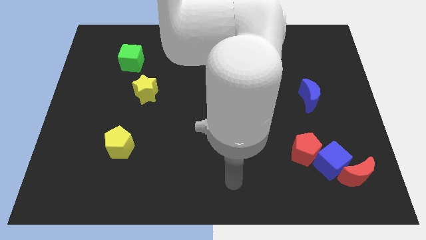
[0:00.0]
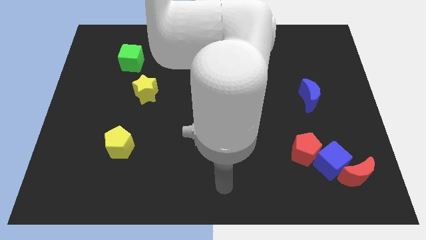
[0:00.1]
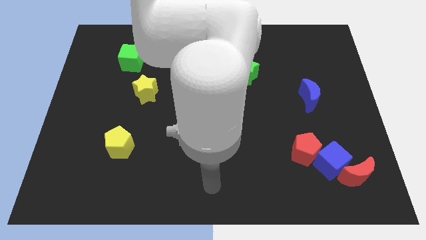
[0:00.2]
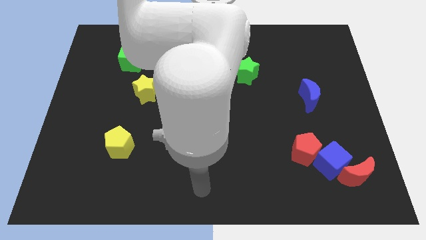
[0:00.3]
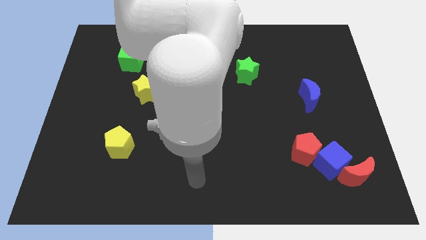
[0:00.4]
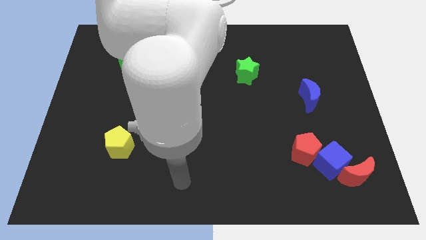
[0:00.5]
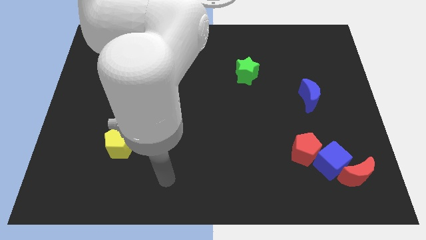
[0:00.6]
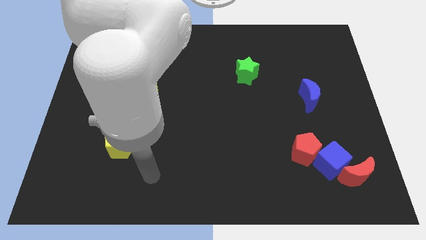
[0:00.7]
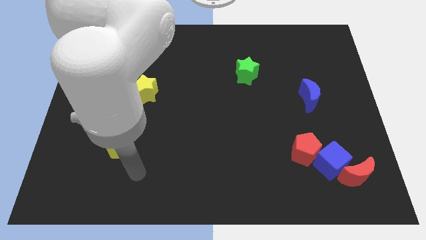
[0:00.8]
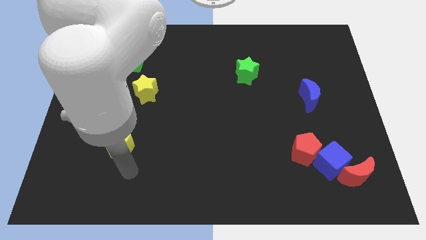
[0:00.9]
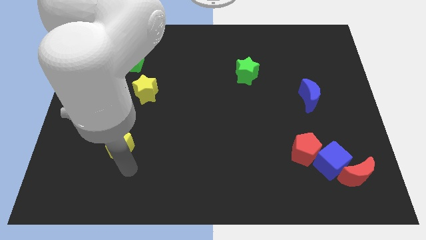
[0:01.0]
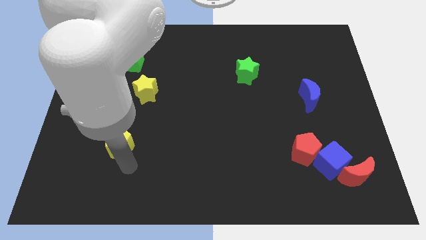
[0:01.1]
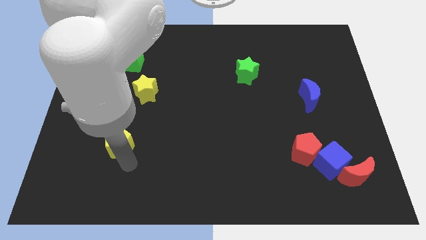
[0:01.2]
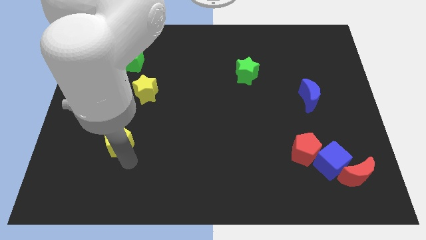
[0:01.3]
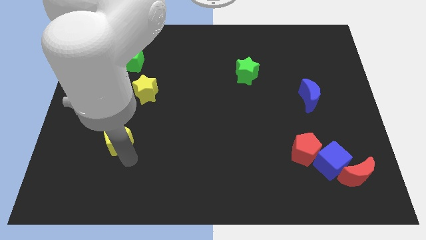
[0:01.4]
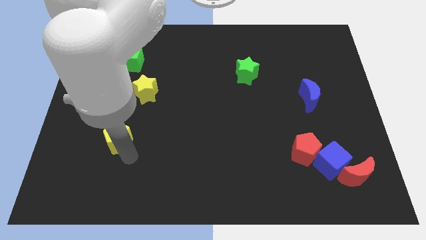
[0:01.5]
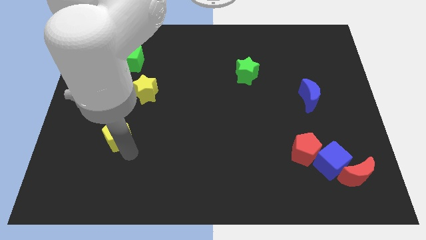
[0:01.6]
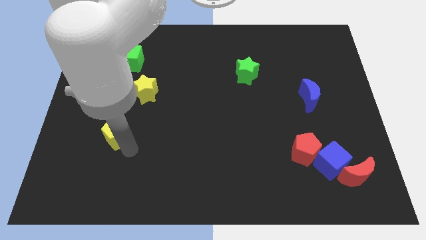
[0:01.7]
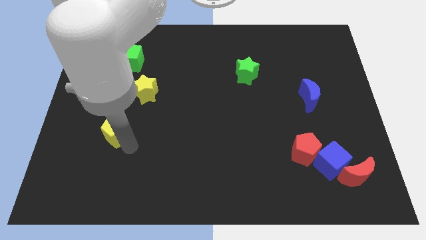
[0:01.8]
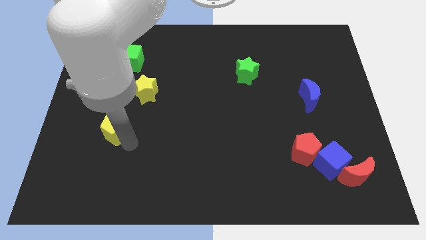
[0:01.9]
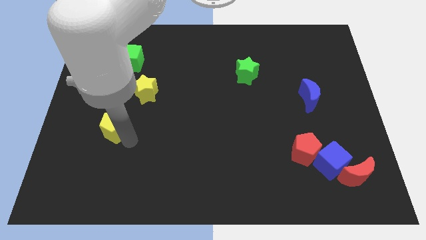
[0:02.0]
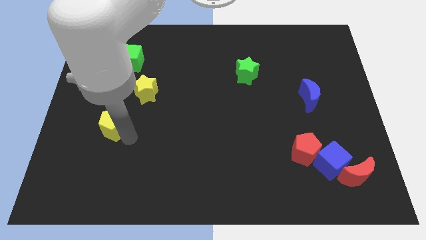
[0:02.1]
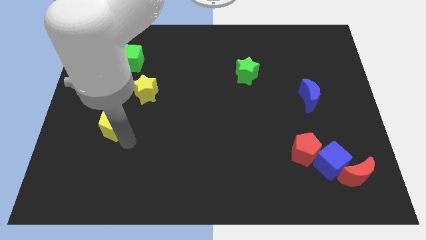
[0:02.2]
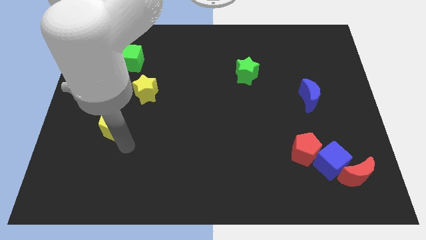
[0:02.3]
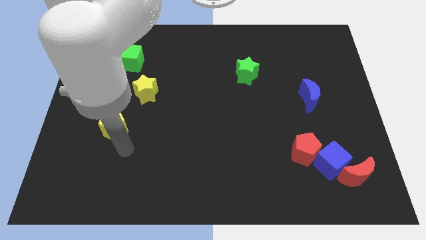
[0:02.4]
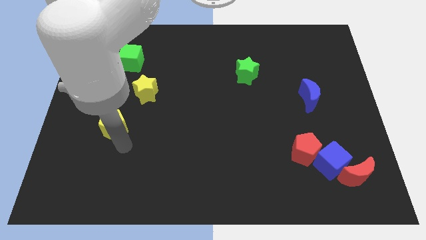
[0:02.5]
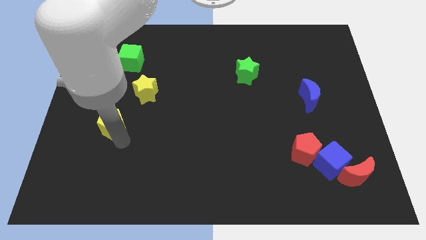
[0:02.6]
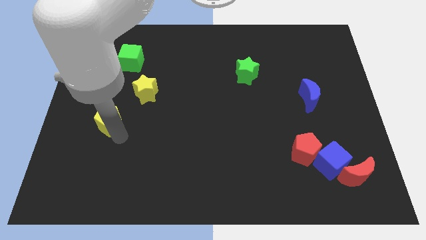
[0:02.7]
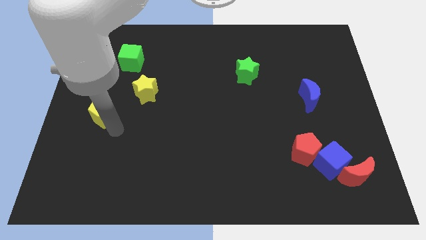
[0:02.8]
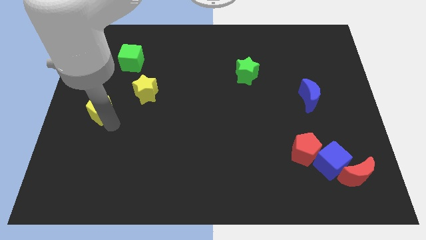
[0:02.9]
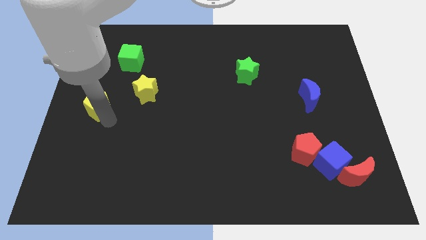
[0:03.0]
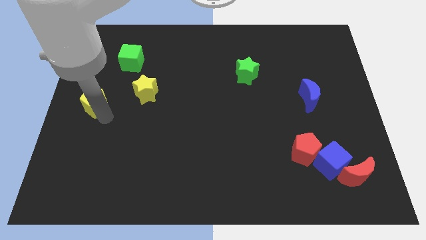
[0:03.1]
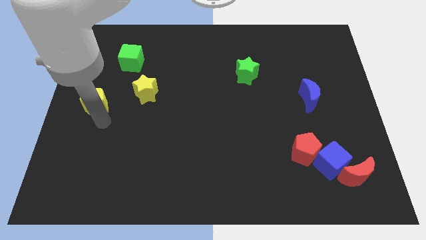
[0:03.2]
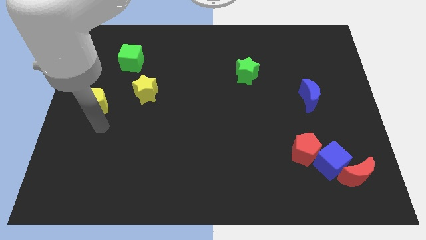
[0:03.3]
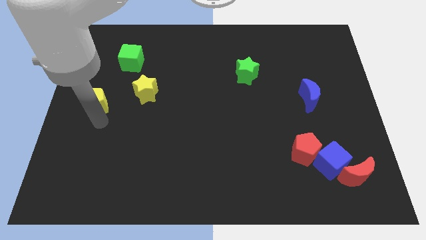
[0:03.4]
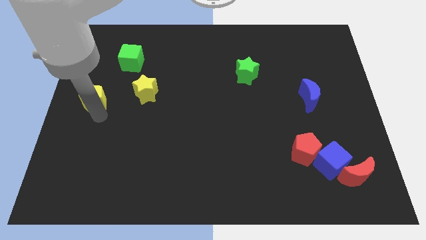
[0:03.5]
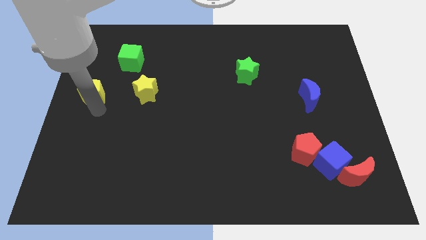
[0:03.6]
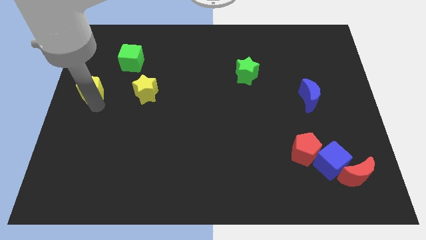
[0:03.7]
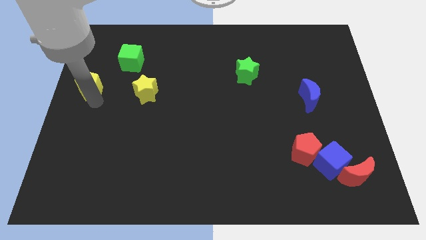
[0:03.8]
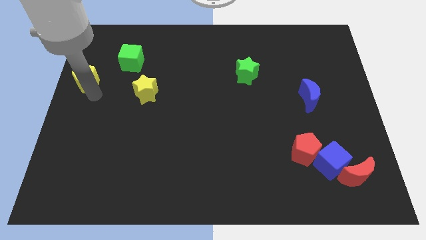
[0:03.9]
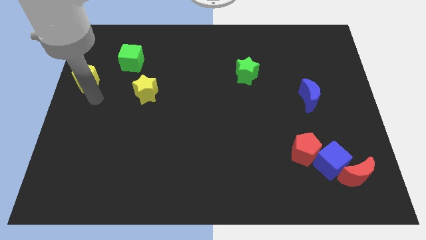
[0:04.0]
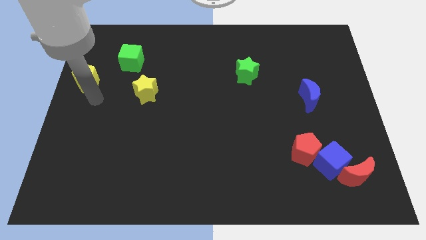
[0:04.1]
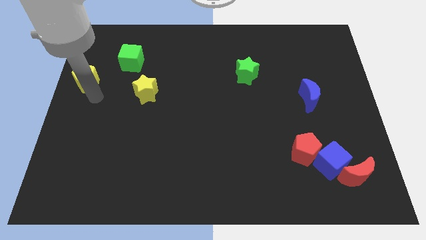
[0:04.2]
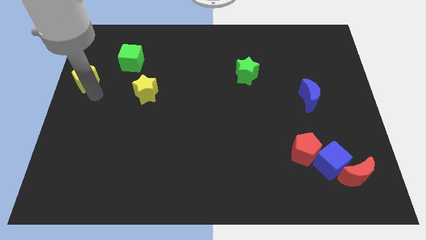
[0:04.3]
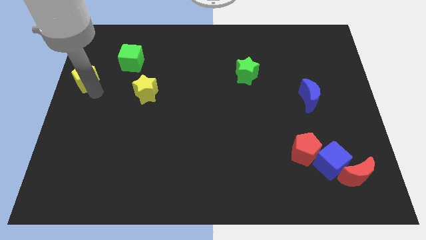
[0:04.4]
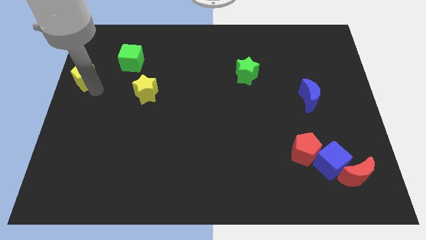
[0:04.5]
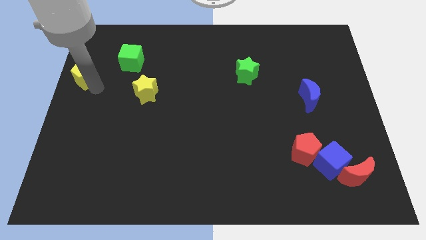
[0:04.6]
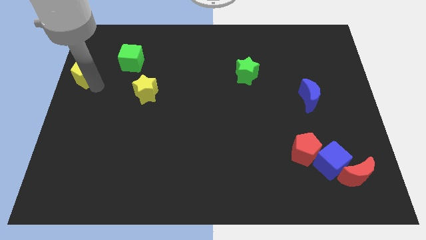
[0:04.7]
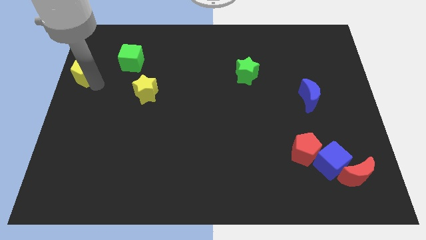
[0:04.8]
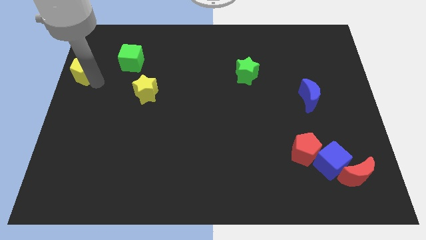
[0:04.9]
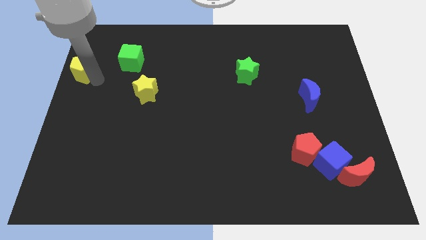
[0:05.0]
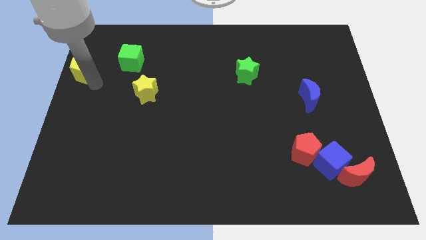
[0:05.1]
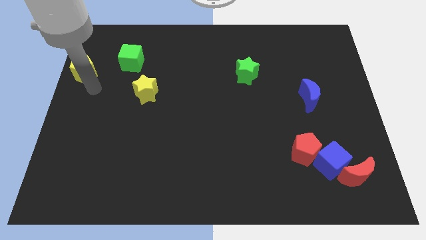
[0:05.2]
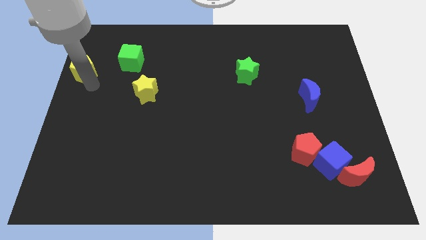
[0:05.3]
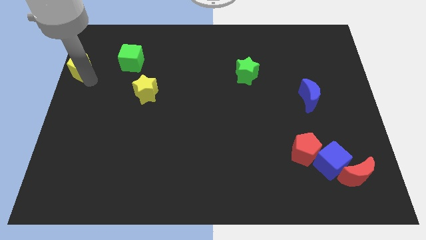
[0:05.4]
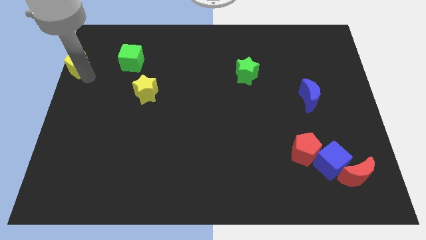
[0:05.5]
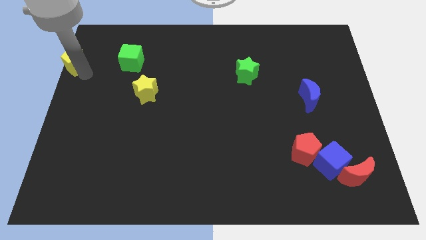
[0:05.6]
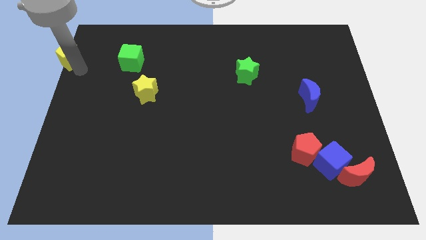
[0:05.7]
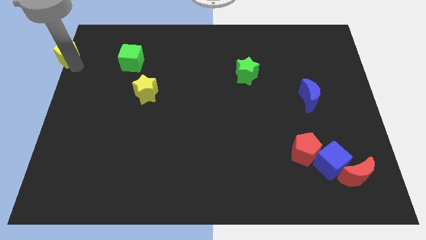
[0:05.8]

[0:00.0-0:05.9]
slide the yellow pentagon to the upper left corner

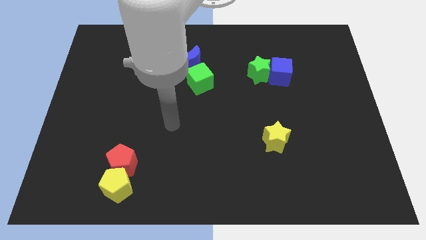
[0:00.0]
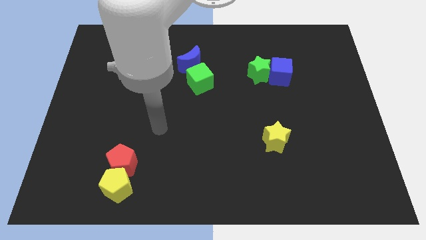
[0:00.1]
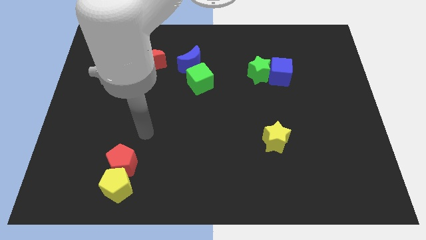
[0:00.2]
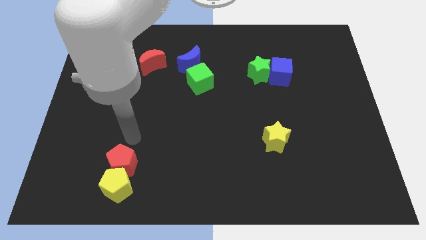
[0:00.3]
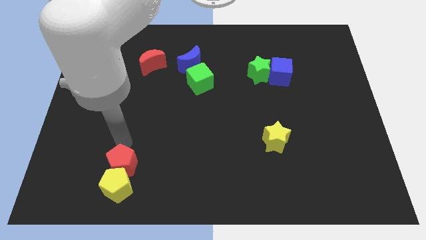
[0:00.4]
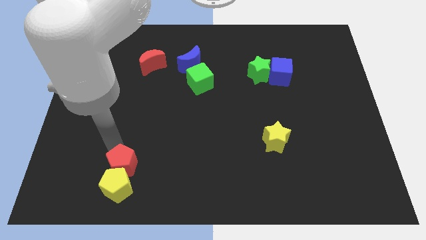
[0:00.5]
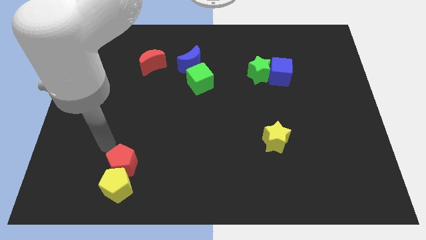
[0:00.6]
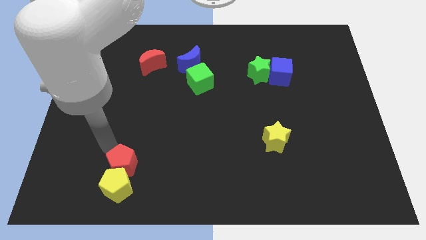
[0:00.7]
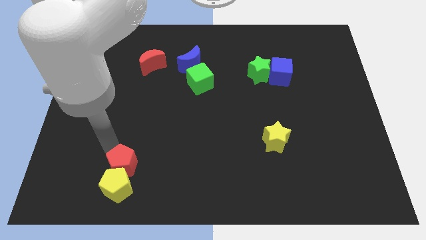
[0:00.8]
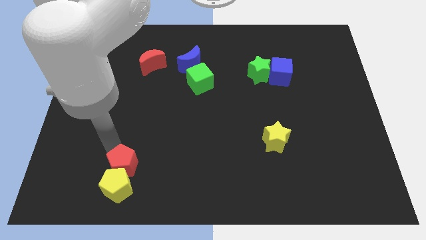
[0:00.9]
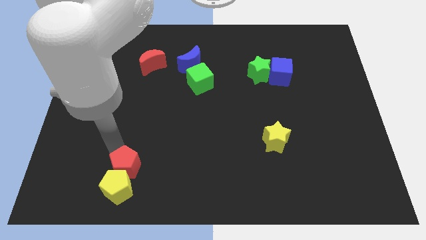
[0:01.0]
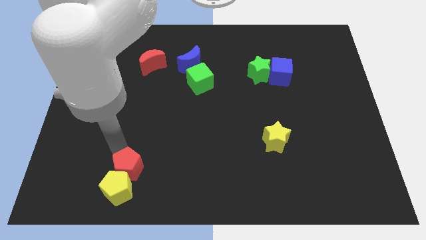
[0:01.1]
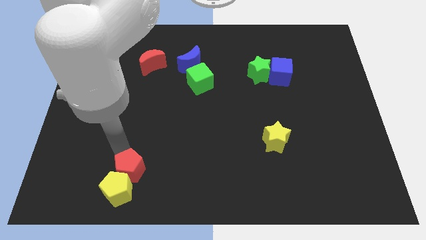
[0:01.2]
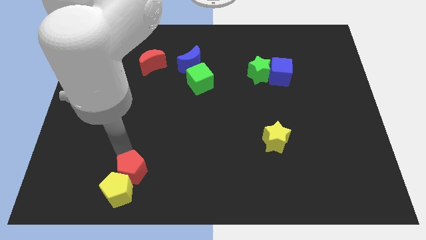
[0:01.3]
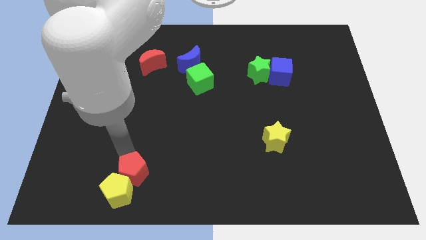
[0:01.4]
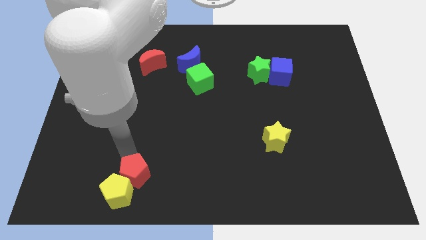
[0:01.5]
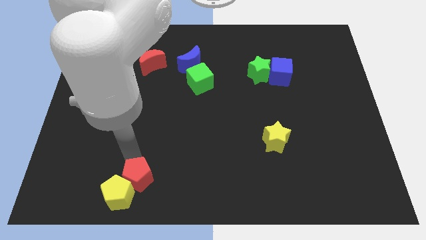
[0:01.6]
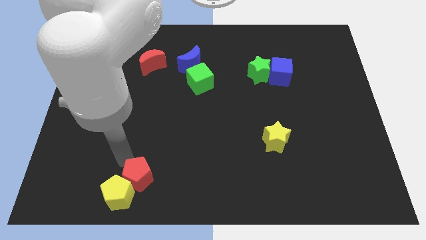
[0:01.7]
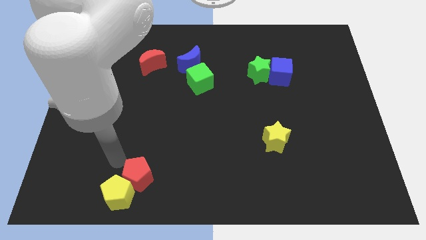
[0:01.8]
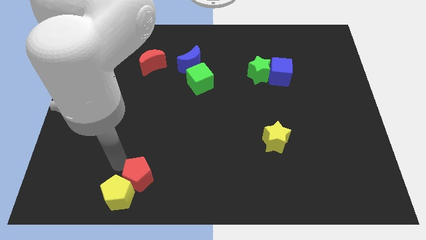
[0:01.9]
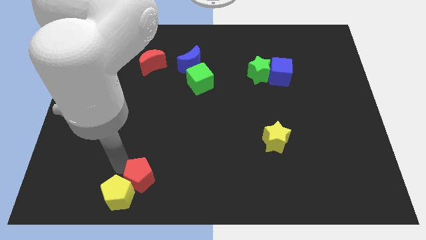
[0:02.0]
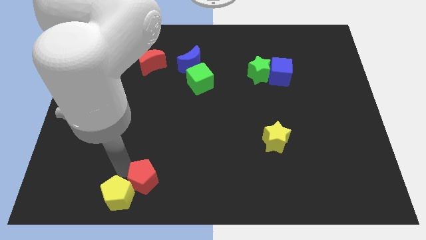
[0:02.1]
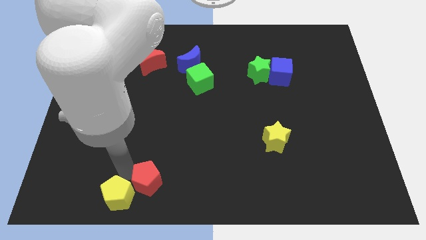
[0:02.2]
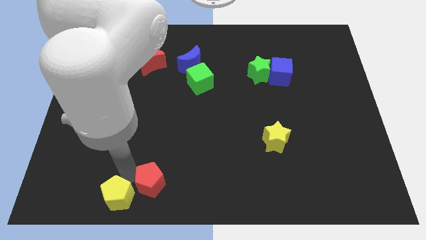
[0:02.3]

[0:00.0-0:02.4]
move the red pentagon to the bottom
